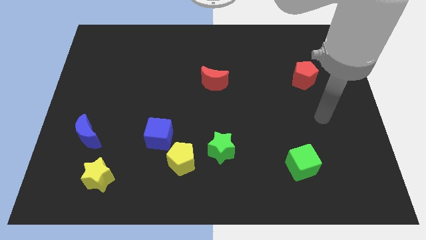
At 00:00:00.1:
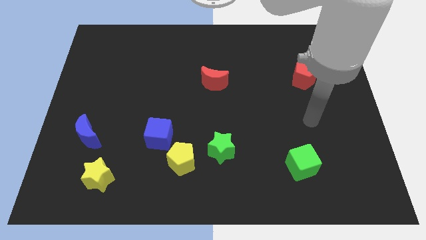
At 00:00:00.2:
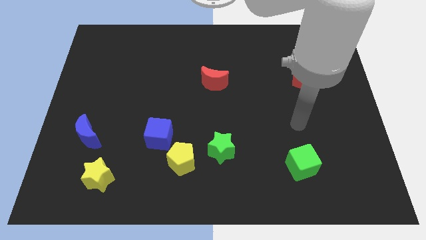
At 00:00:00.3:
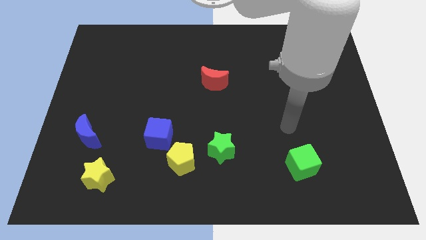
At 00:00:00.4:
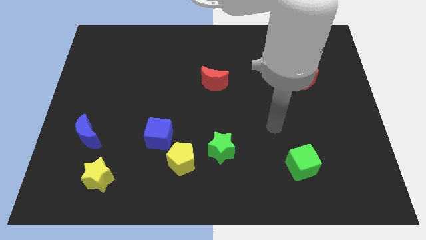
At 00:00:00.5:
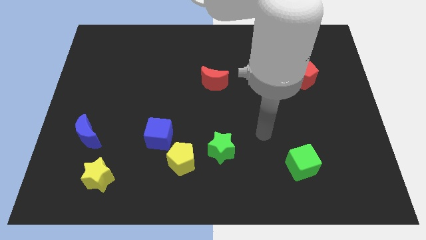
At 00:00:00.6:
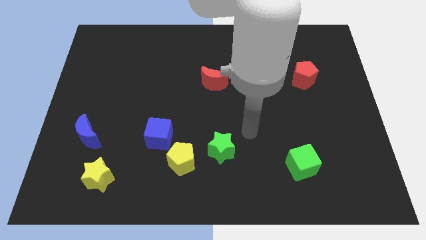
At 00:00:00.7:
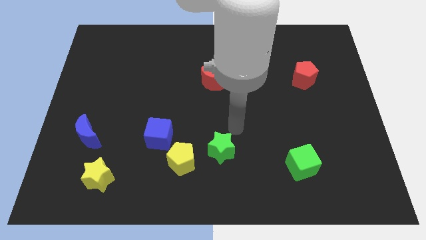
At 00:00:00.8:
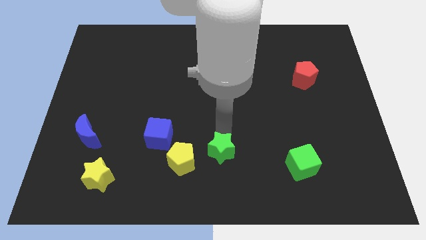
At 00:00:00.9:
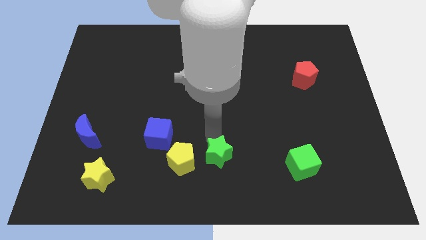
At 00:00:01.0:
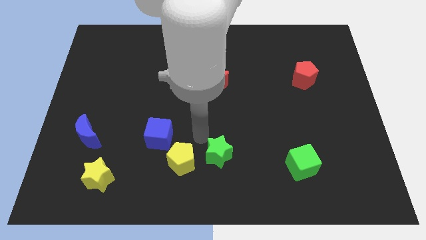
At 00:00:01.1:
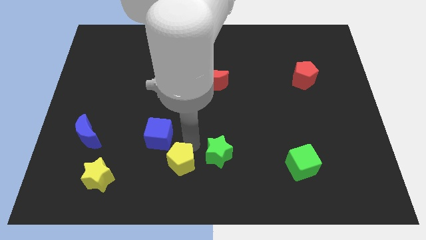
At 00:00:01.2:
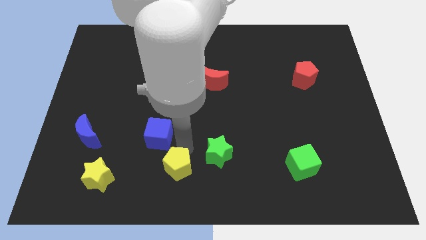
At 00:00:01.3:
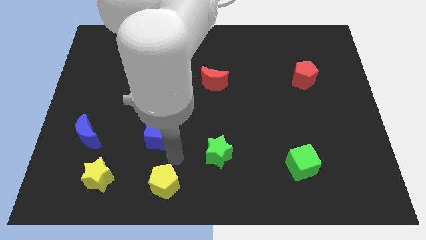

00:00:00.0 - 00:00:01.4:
pull the blue cube apart from the yellow pentagon

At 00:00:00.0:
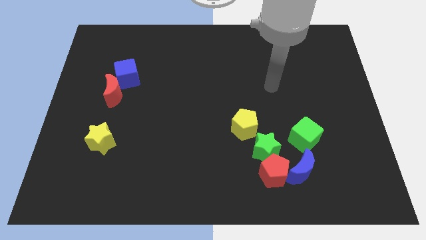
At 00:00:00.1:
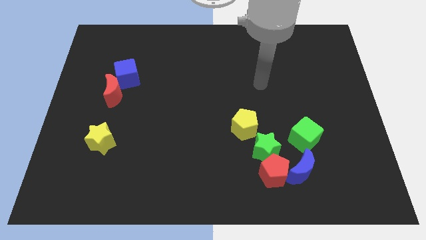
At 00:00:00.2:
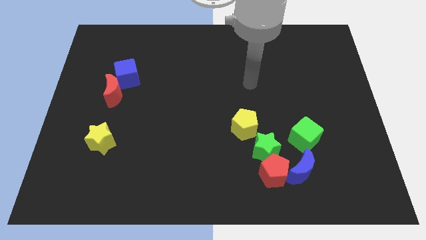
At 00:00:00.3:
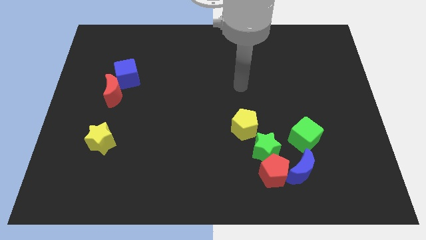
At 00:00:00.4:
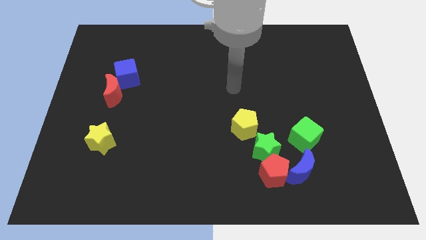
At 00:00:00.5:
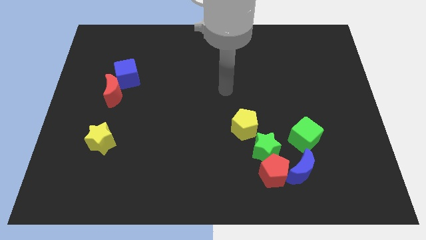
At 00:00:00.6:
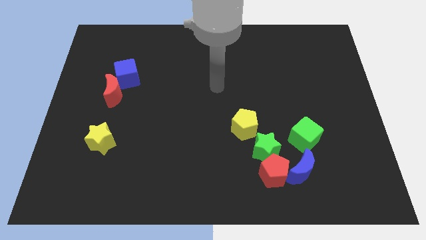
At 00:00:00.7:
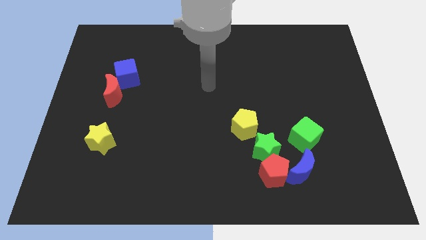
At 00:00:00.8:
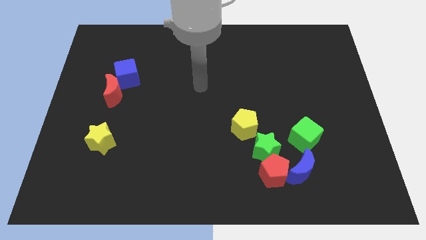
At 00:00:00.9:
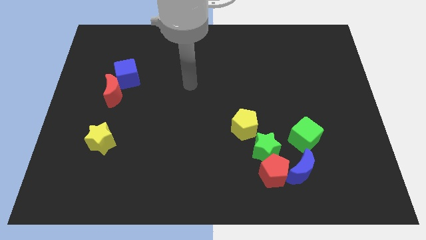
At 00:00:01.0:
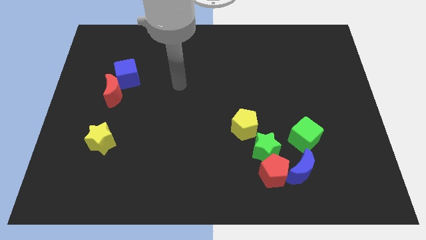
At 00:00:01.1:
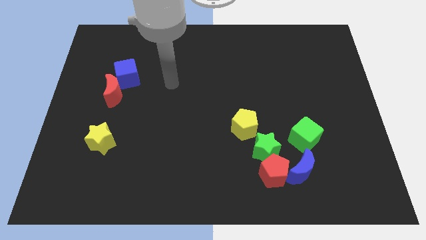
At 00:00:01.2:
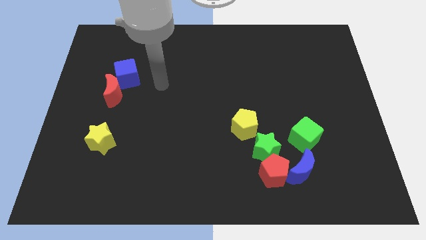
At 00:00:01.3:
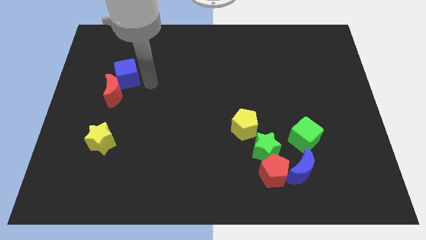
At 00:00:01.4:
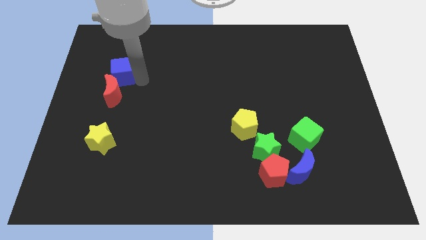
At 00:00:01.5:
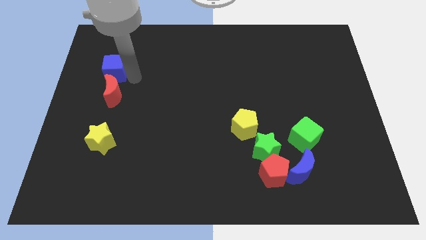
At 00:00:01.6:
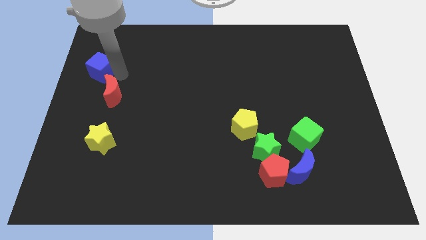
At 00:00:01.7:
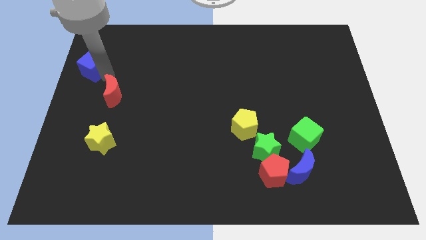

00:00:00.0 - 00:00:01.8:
pull the red moon apart from the blue cube

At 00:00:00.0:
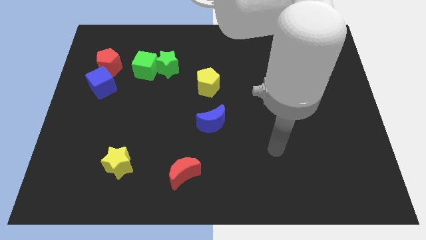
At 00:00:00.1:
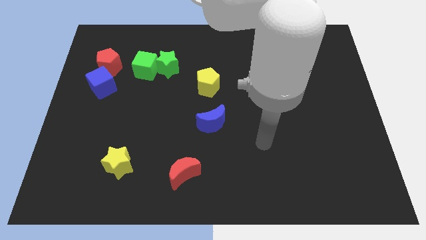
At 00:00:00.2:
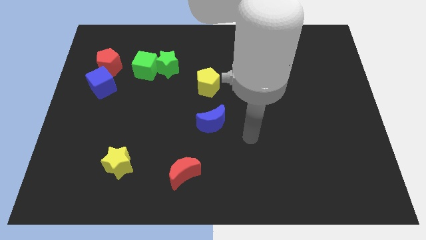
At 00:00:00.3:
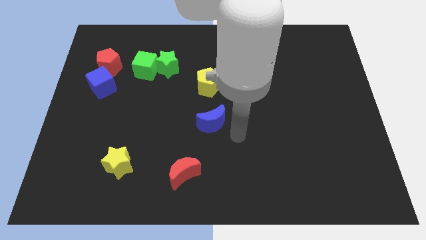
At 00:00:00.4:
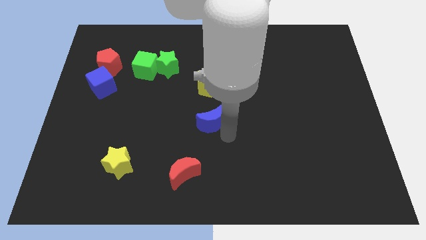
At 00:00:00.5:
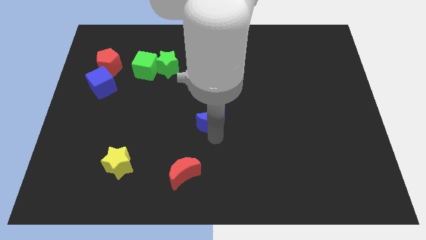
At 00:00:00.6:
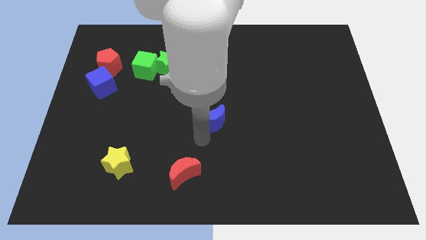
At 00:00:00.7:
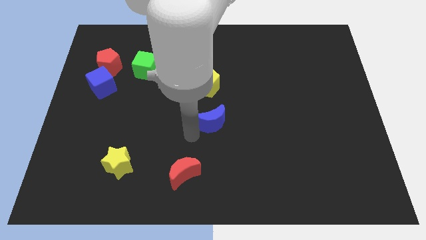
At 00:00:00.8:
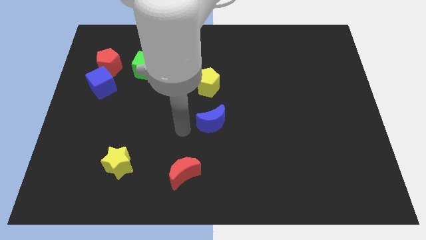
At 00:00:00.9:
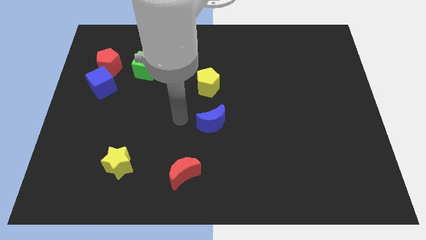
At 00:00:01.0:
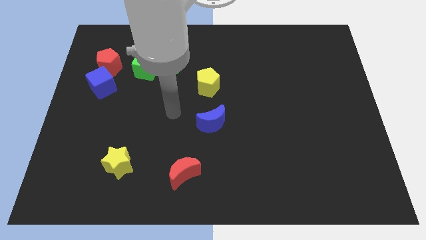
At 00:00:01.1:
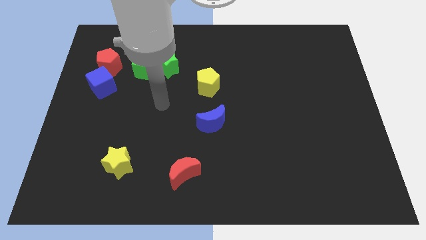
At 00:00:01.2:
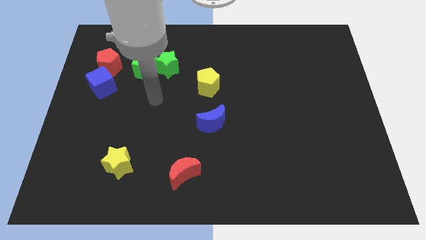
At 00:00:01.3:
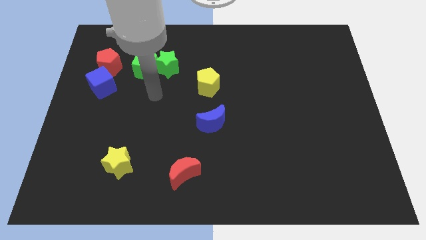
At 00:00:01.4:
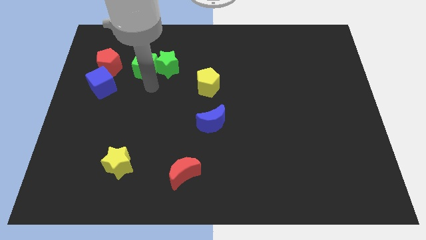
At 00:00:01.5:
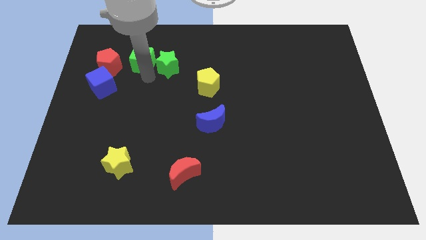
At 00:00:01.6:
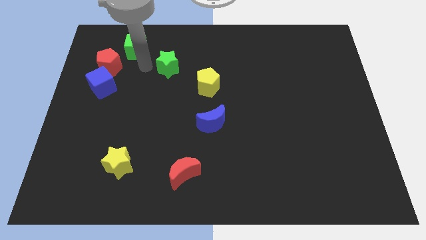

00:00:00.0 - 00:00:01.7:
separate the green star from the green cube

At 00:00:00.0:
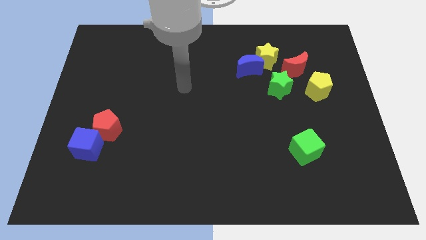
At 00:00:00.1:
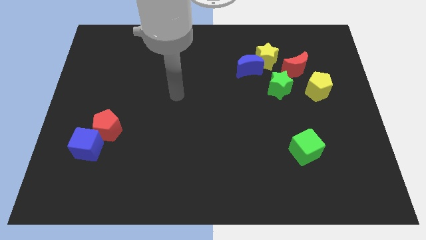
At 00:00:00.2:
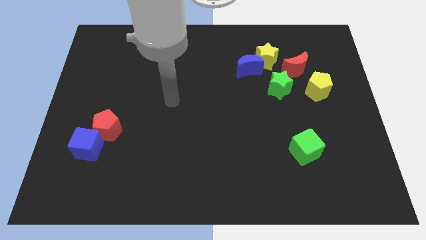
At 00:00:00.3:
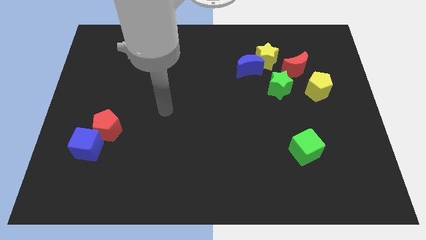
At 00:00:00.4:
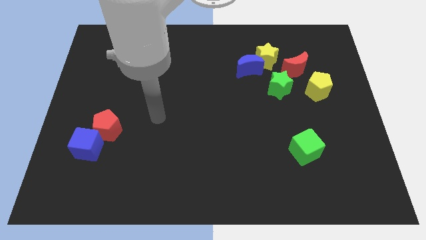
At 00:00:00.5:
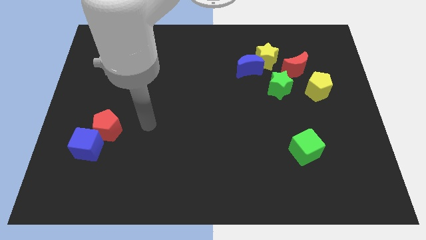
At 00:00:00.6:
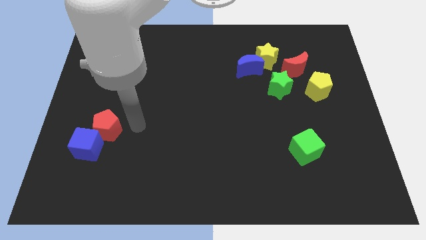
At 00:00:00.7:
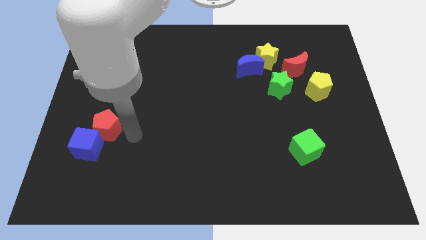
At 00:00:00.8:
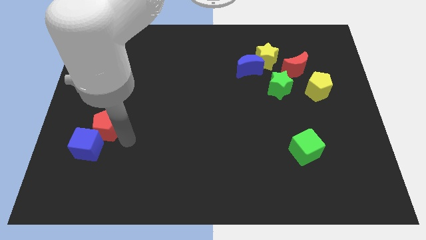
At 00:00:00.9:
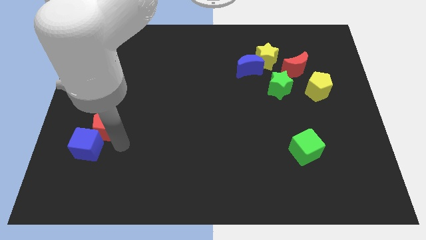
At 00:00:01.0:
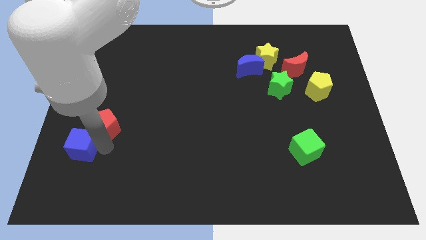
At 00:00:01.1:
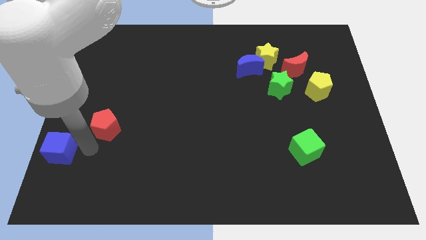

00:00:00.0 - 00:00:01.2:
move the red pentagon away from the blue cube

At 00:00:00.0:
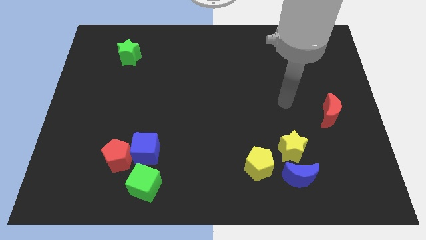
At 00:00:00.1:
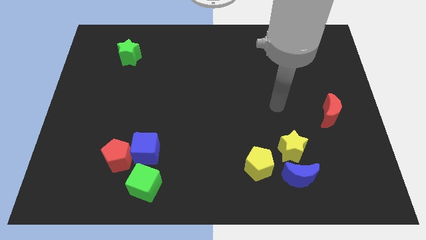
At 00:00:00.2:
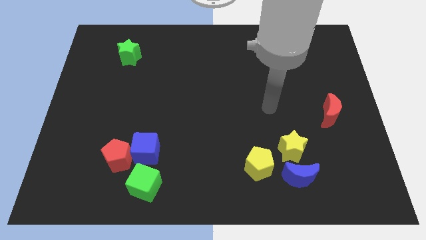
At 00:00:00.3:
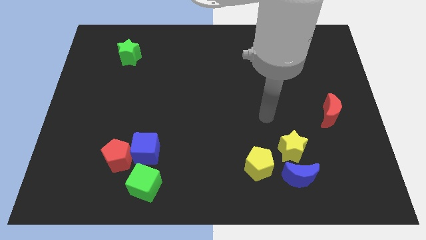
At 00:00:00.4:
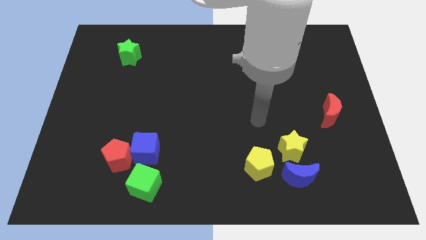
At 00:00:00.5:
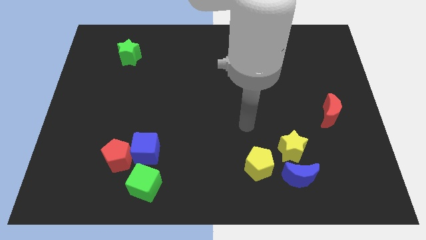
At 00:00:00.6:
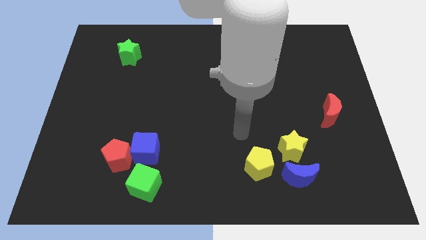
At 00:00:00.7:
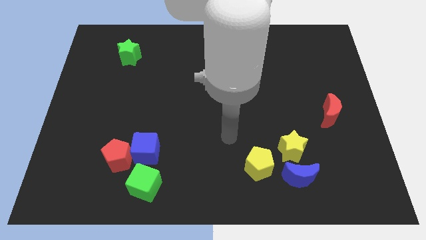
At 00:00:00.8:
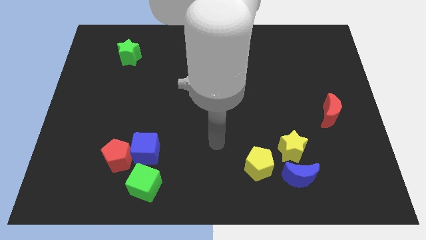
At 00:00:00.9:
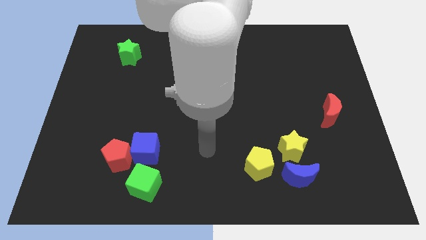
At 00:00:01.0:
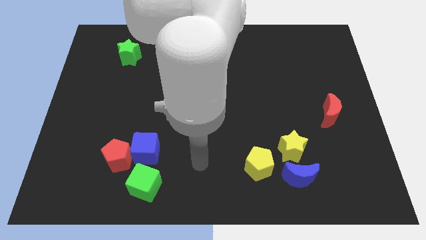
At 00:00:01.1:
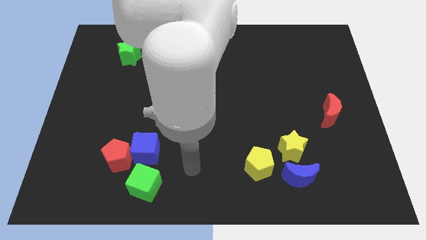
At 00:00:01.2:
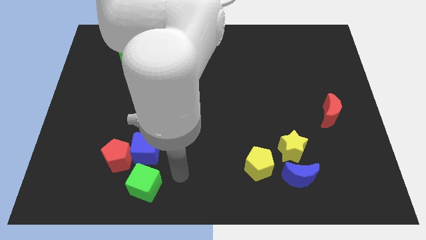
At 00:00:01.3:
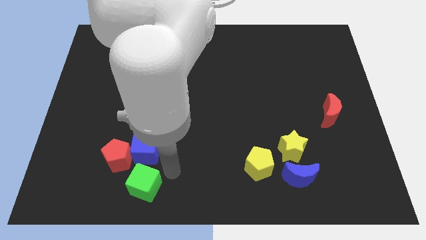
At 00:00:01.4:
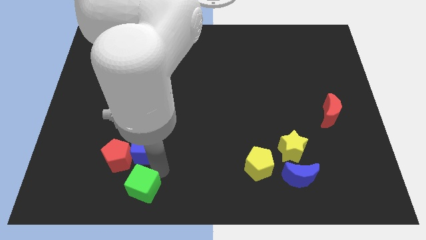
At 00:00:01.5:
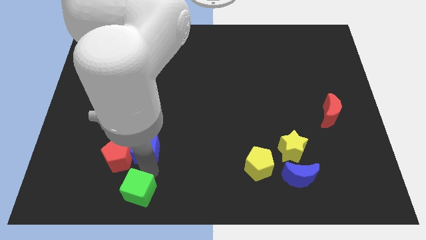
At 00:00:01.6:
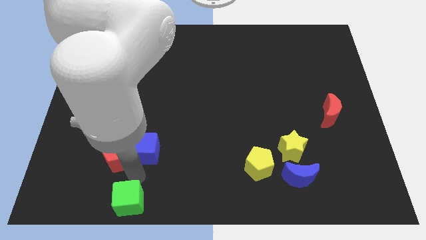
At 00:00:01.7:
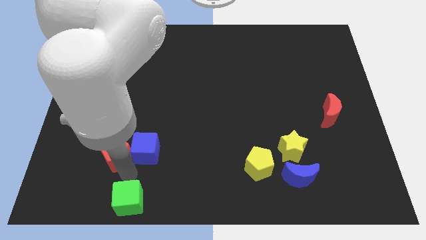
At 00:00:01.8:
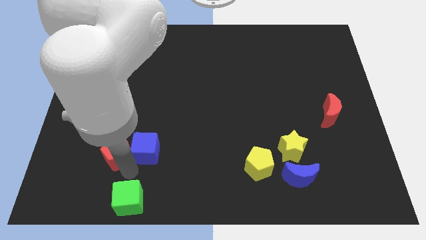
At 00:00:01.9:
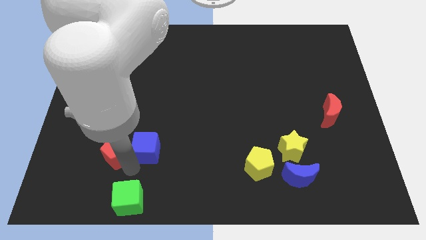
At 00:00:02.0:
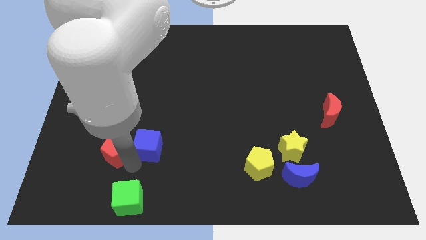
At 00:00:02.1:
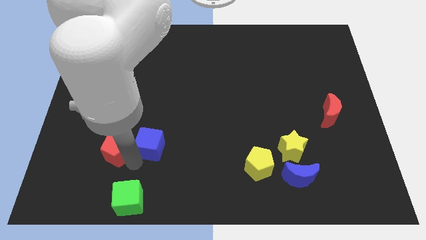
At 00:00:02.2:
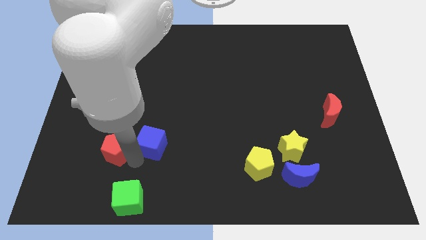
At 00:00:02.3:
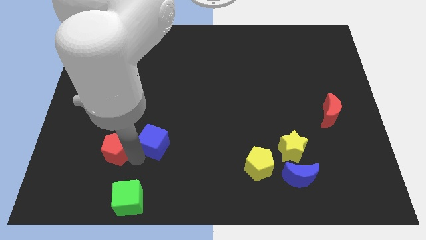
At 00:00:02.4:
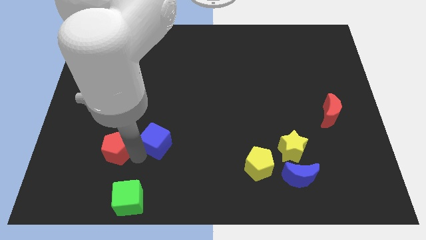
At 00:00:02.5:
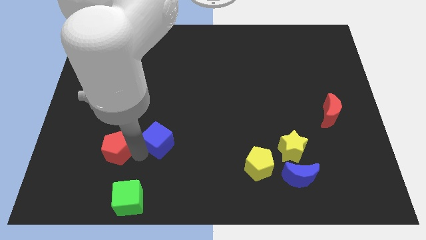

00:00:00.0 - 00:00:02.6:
pull the blue cube apart from the red pentagon and green cube

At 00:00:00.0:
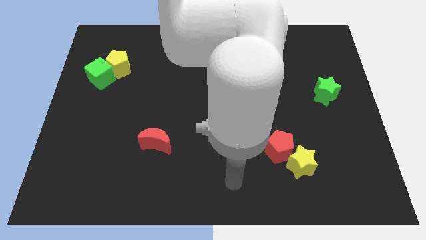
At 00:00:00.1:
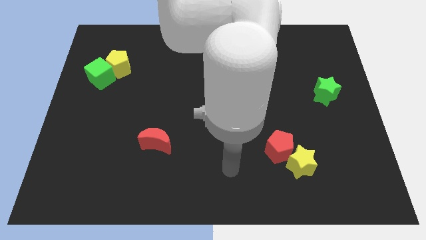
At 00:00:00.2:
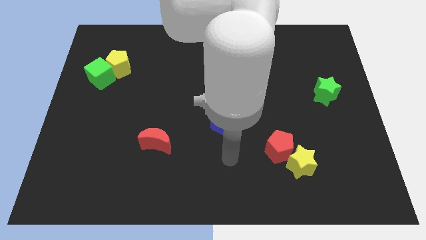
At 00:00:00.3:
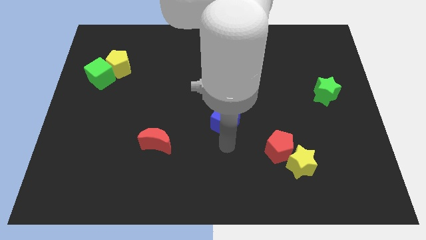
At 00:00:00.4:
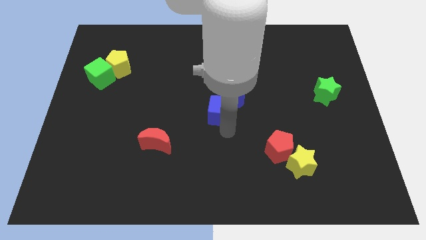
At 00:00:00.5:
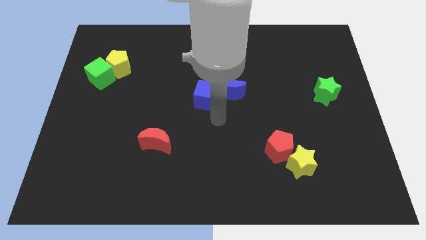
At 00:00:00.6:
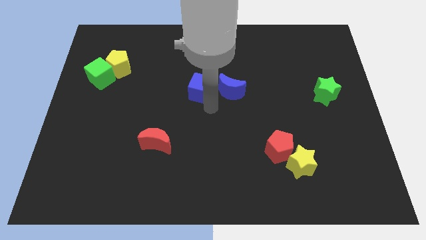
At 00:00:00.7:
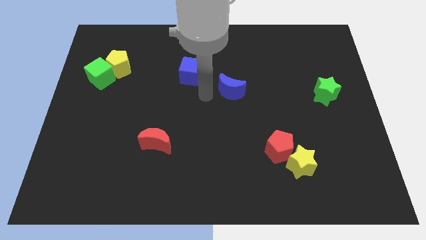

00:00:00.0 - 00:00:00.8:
pull the blue moon apart from the blue cube
